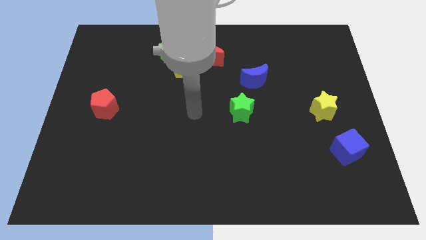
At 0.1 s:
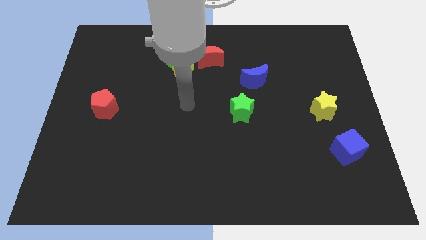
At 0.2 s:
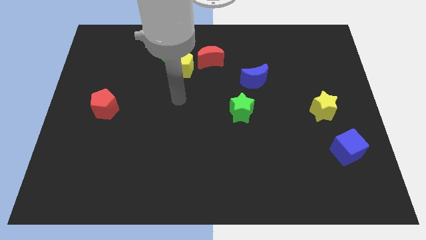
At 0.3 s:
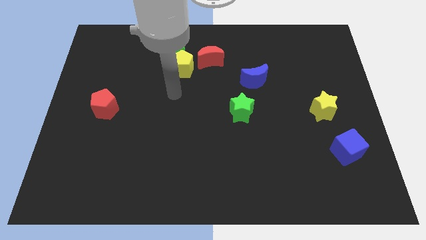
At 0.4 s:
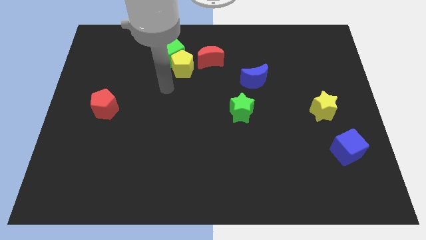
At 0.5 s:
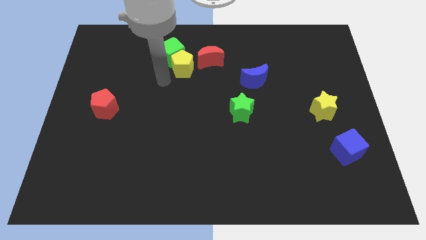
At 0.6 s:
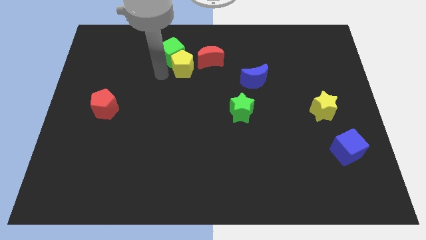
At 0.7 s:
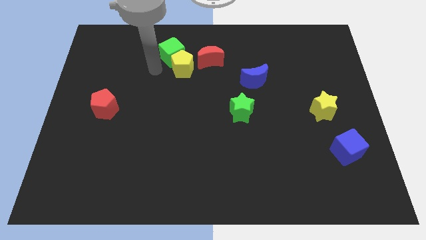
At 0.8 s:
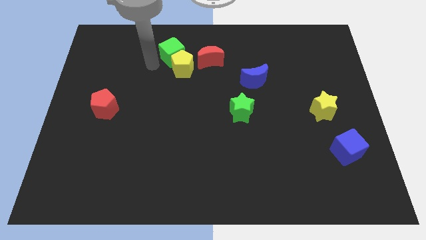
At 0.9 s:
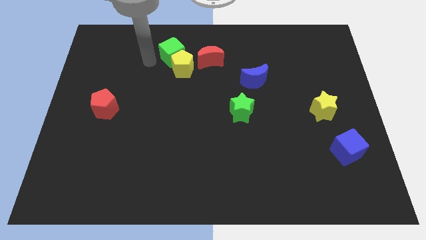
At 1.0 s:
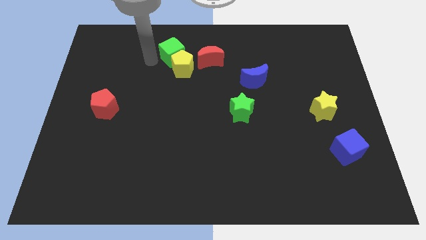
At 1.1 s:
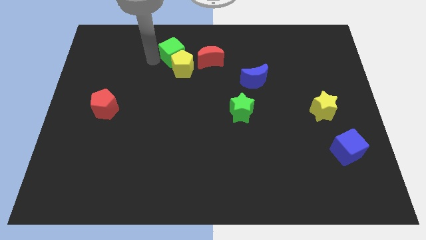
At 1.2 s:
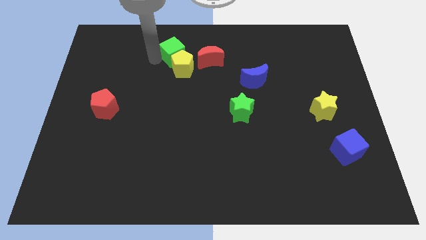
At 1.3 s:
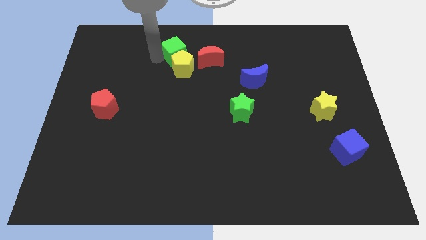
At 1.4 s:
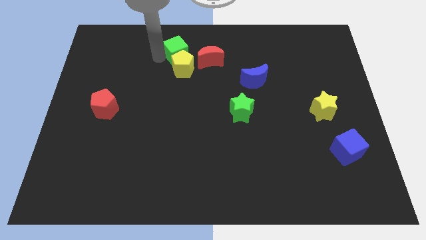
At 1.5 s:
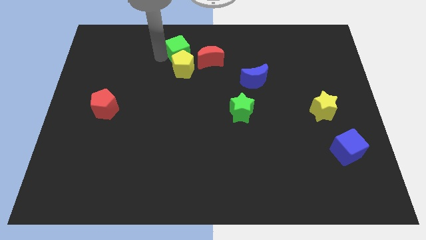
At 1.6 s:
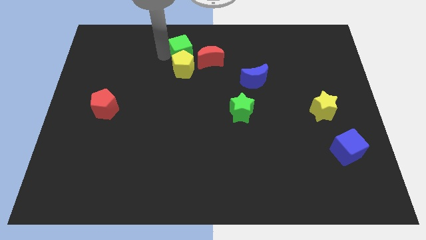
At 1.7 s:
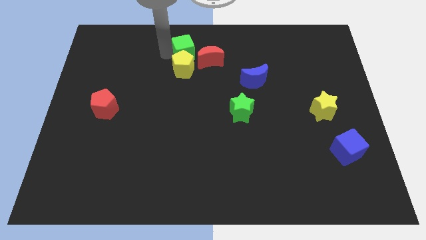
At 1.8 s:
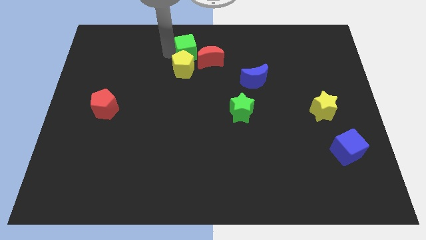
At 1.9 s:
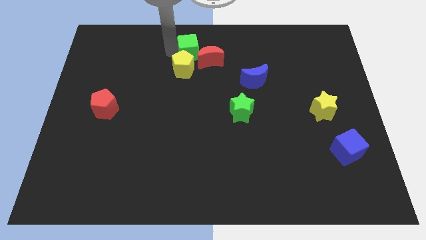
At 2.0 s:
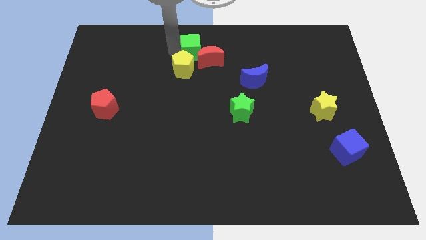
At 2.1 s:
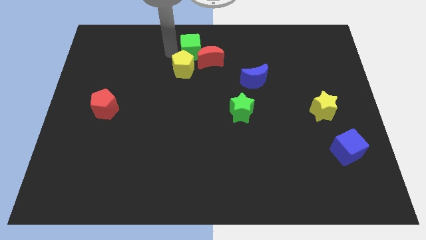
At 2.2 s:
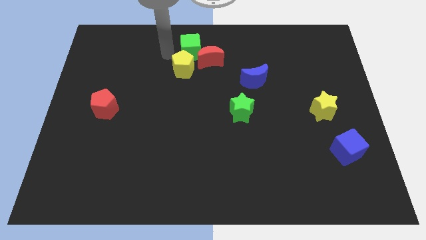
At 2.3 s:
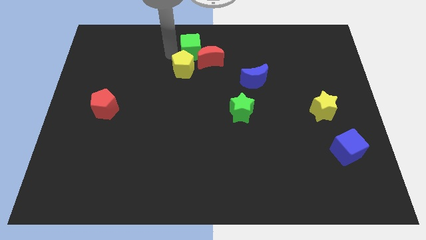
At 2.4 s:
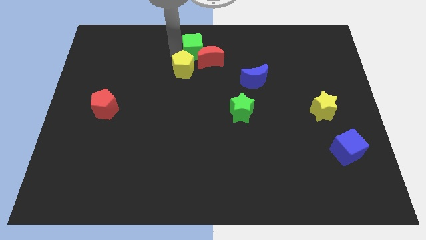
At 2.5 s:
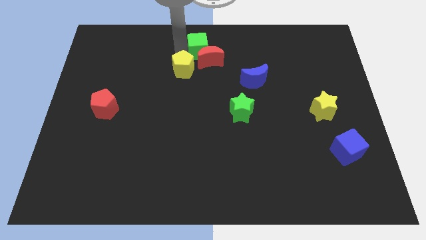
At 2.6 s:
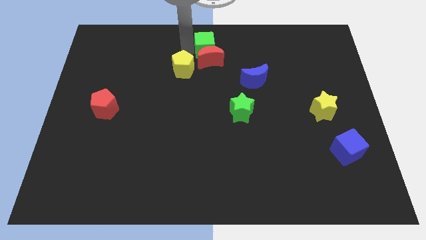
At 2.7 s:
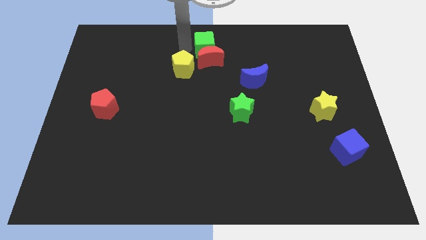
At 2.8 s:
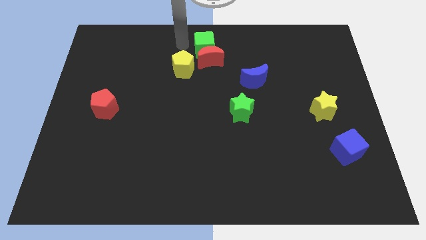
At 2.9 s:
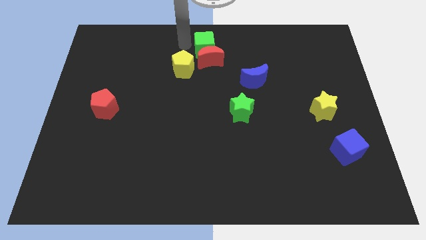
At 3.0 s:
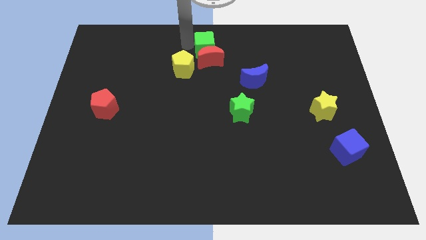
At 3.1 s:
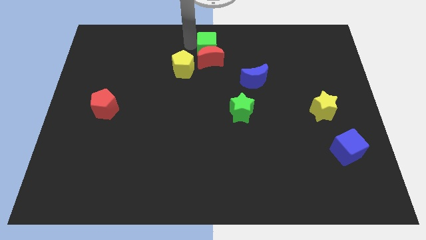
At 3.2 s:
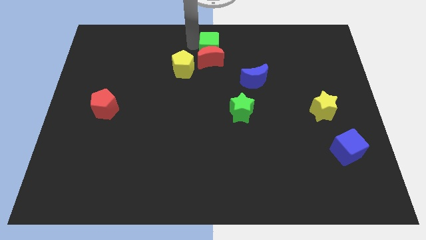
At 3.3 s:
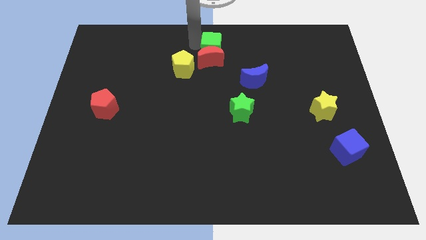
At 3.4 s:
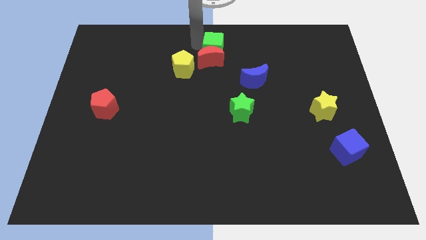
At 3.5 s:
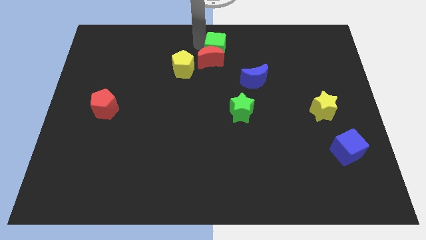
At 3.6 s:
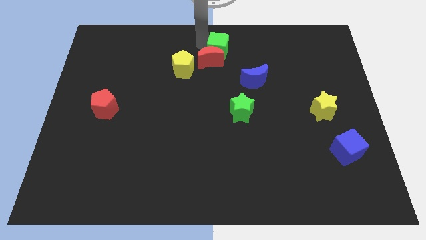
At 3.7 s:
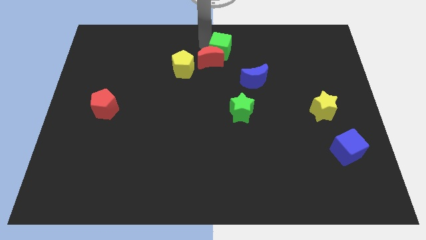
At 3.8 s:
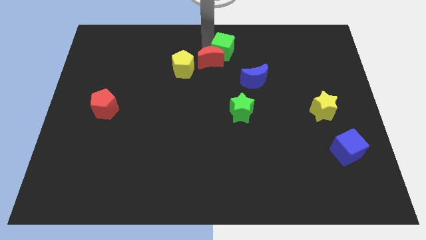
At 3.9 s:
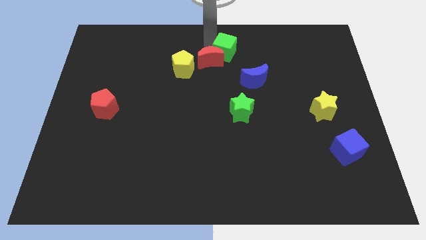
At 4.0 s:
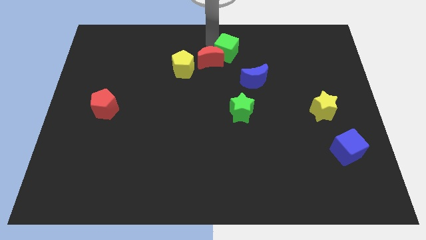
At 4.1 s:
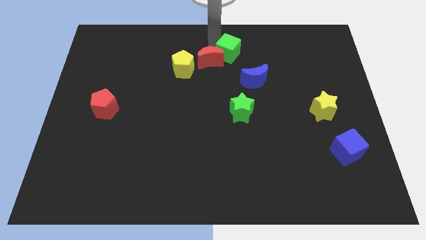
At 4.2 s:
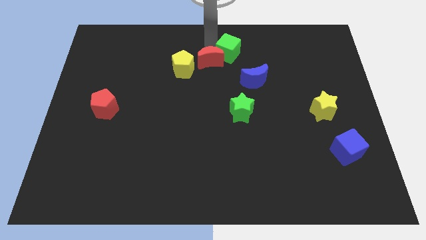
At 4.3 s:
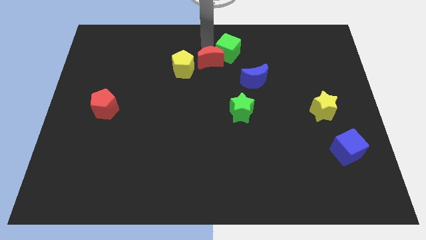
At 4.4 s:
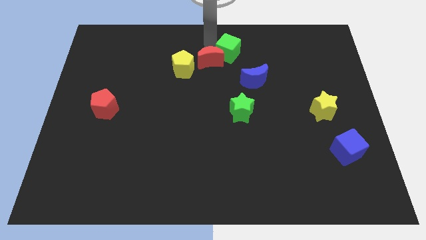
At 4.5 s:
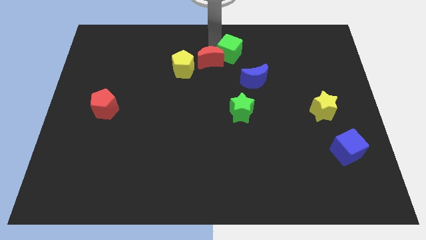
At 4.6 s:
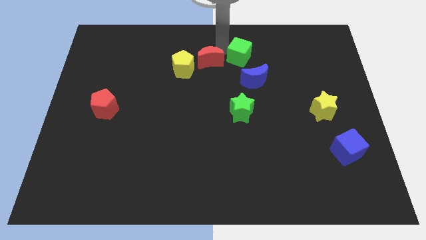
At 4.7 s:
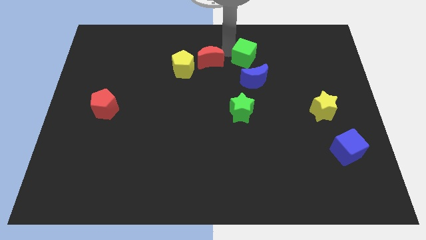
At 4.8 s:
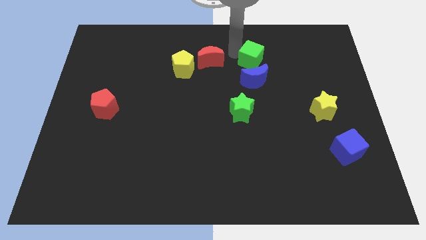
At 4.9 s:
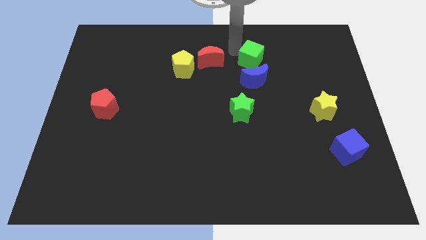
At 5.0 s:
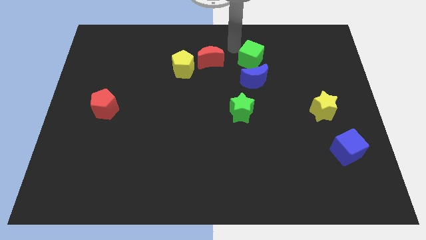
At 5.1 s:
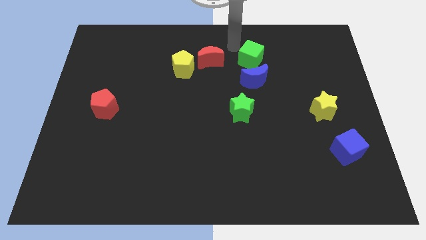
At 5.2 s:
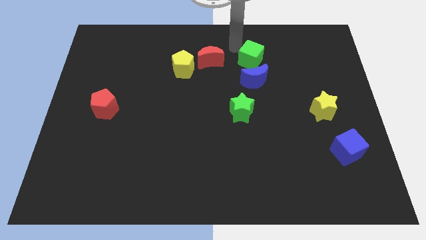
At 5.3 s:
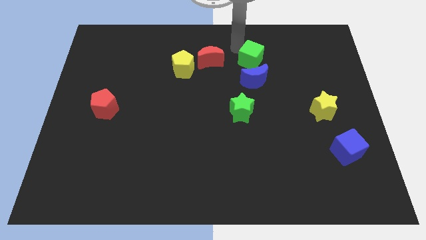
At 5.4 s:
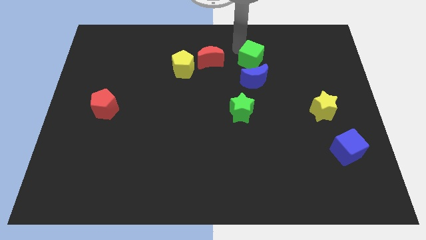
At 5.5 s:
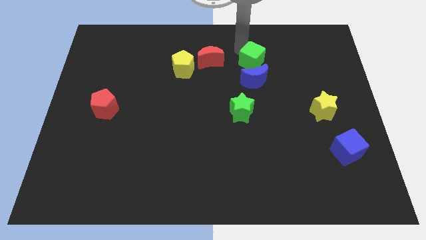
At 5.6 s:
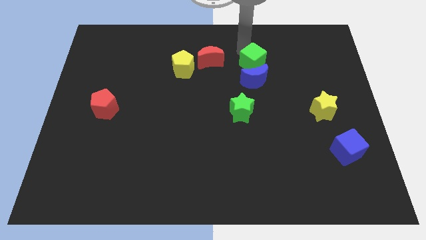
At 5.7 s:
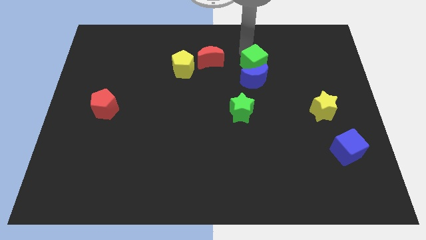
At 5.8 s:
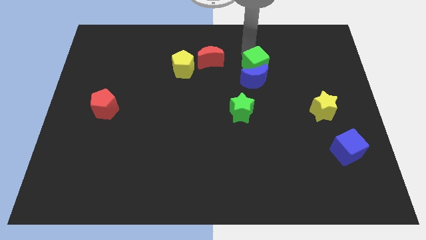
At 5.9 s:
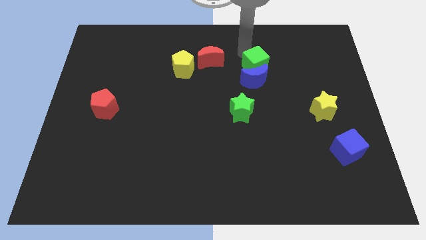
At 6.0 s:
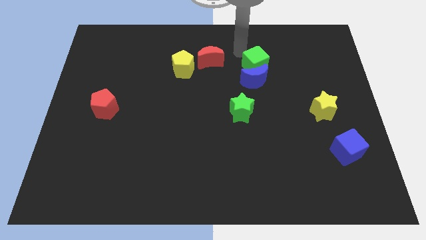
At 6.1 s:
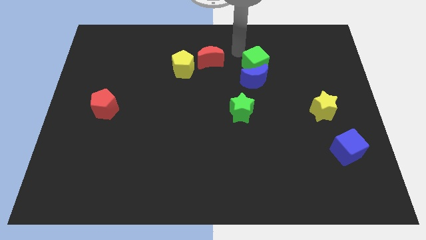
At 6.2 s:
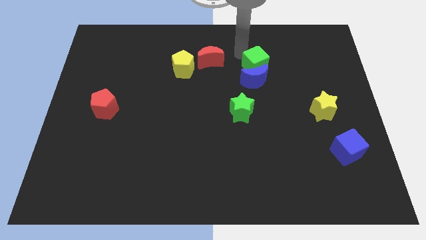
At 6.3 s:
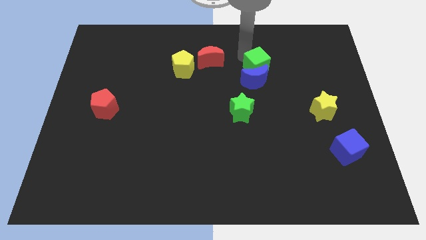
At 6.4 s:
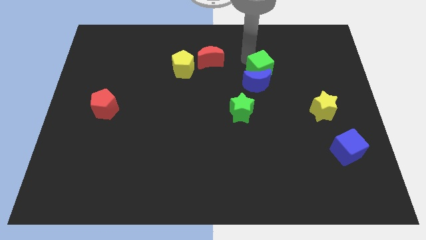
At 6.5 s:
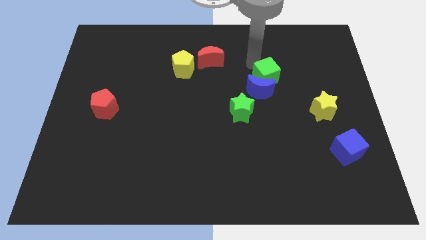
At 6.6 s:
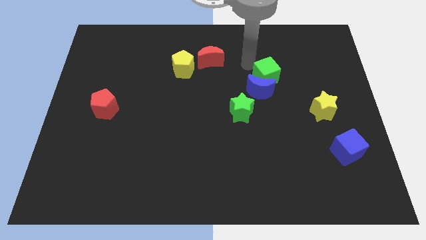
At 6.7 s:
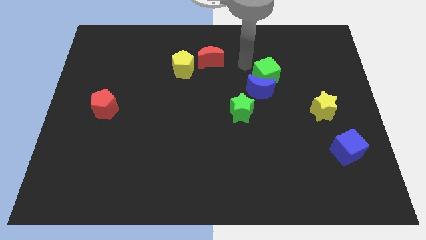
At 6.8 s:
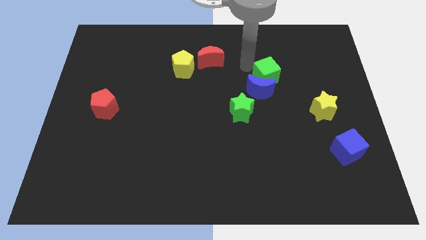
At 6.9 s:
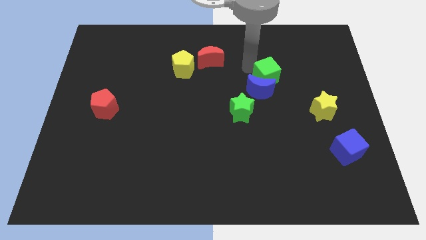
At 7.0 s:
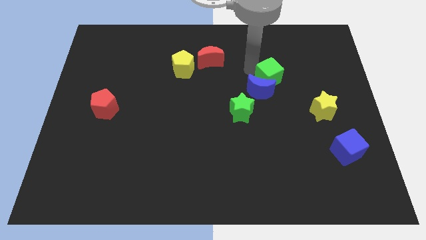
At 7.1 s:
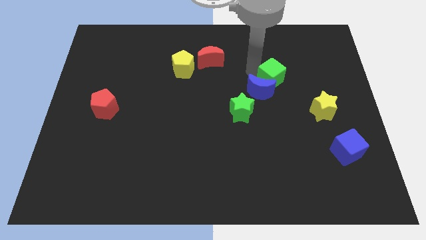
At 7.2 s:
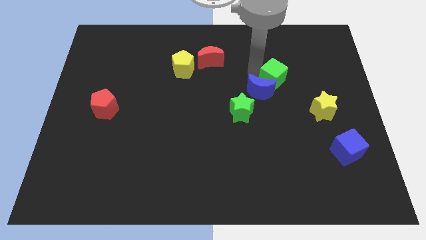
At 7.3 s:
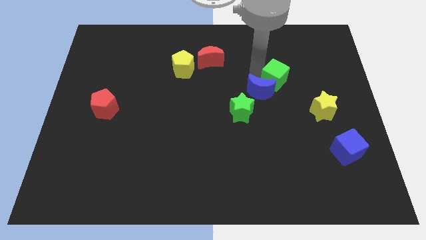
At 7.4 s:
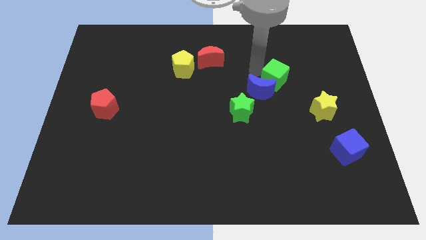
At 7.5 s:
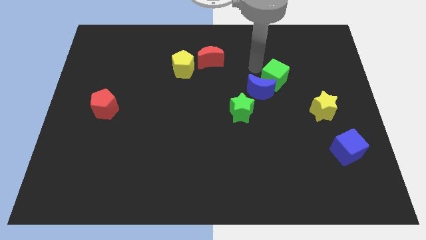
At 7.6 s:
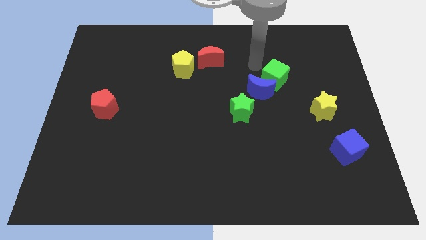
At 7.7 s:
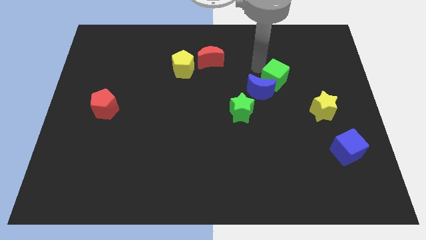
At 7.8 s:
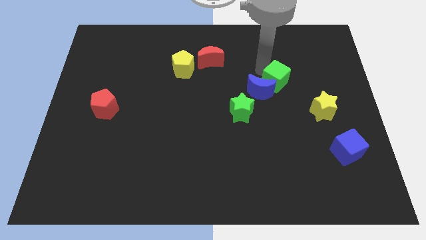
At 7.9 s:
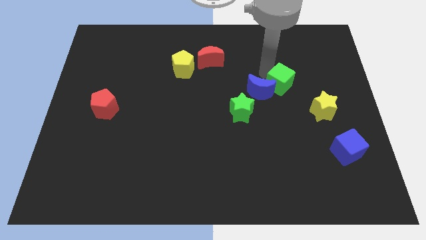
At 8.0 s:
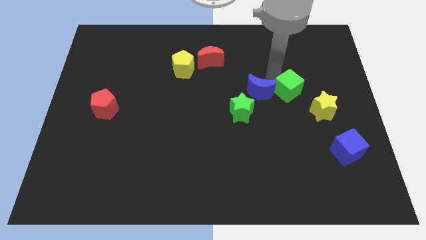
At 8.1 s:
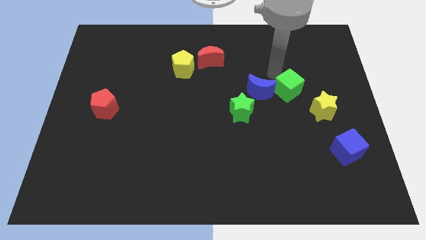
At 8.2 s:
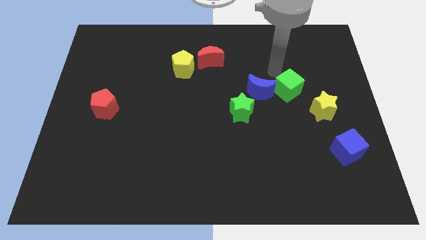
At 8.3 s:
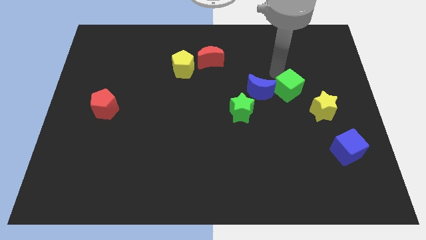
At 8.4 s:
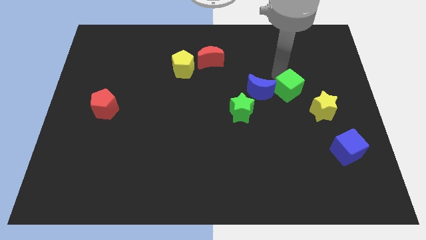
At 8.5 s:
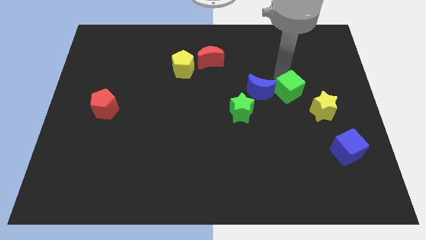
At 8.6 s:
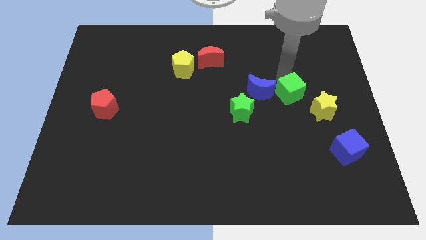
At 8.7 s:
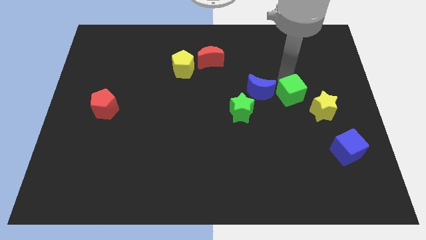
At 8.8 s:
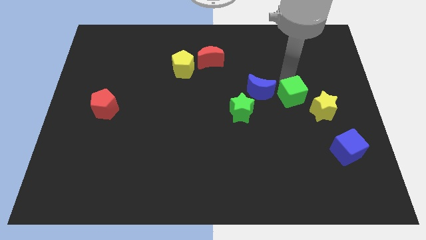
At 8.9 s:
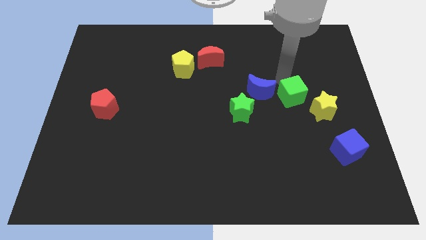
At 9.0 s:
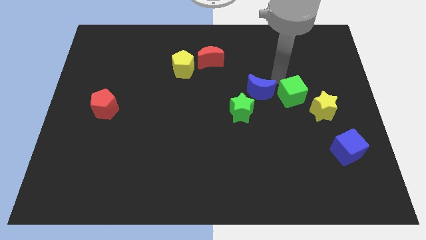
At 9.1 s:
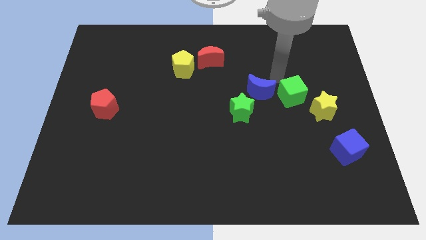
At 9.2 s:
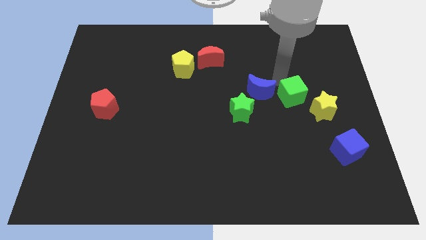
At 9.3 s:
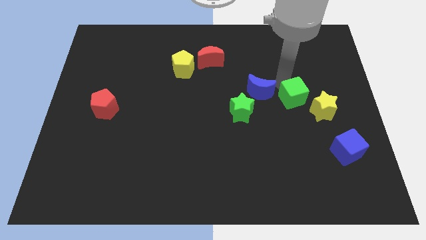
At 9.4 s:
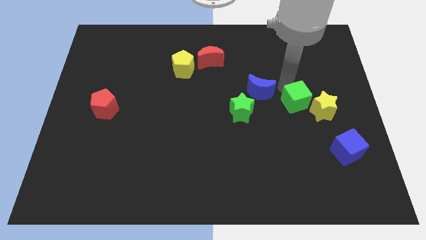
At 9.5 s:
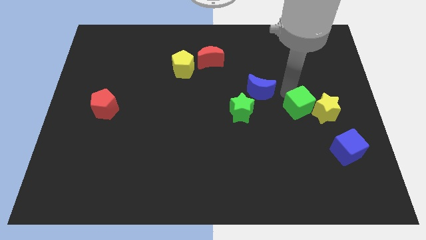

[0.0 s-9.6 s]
put the green cube towards the yellow star
